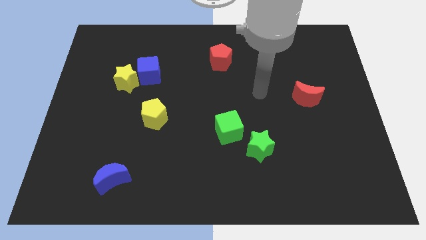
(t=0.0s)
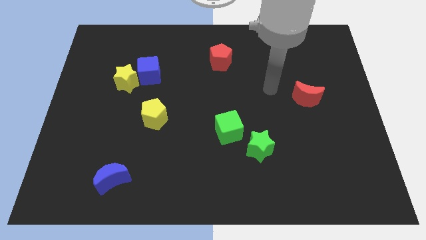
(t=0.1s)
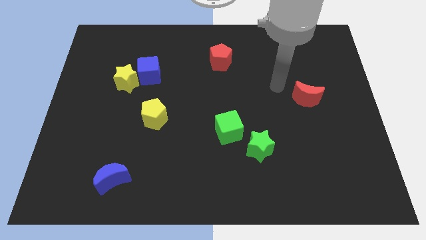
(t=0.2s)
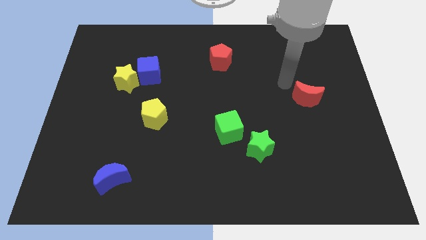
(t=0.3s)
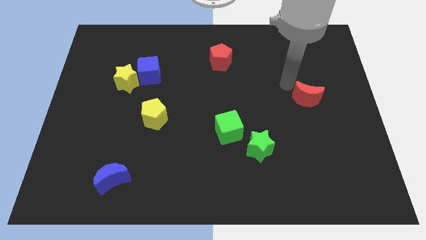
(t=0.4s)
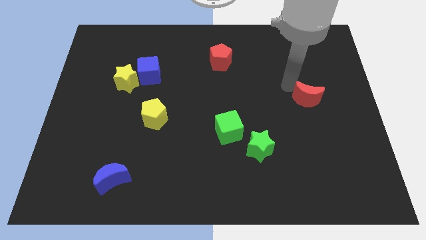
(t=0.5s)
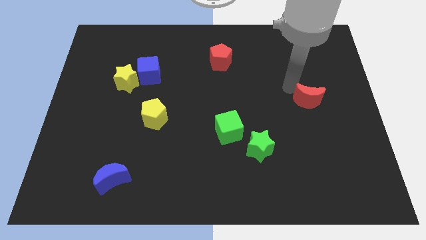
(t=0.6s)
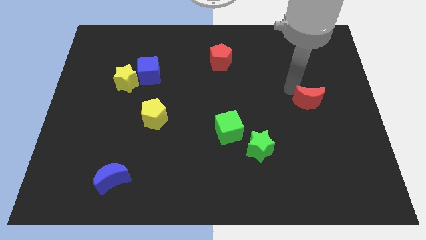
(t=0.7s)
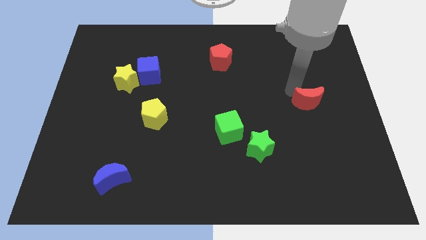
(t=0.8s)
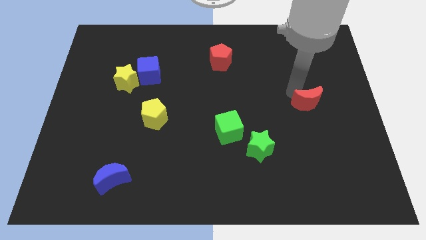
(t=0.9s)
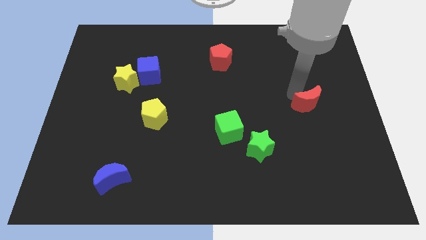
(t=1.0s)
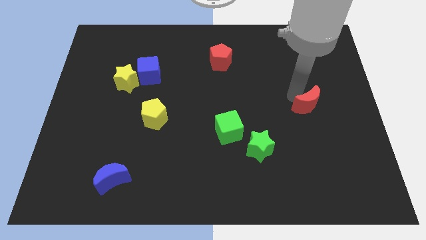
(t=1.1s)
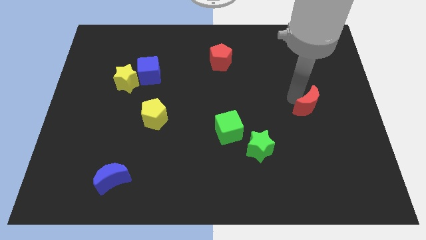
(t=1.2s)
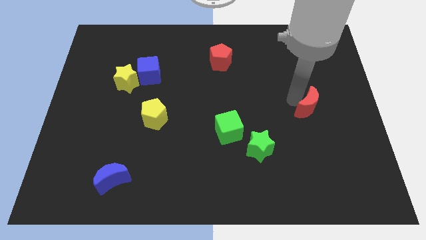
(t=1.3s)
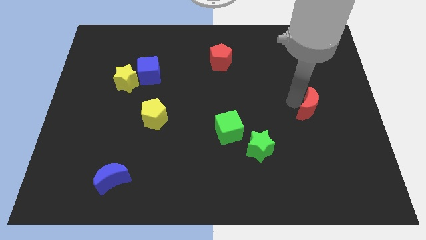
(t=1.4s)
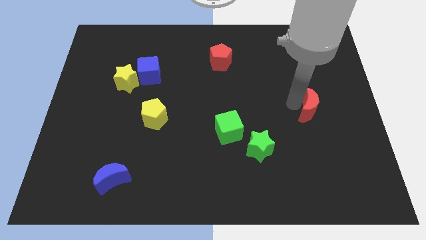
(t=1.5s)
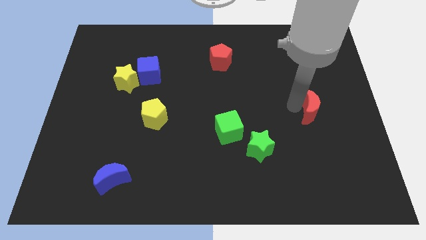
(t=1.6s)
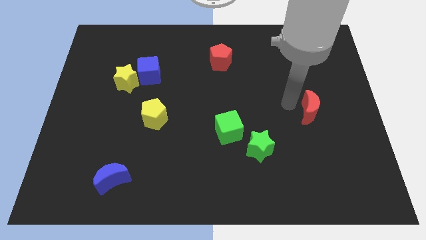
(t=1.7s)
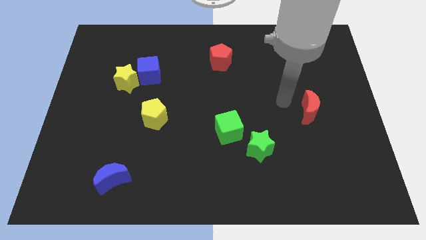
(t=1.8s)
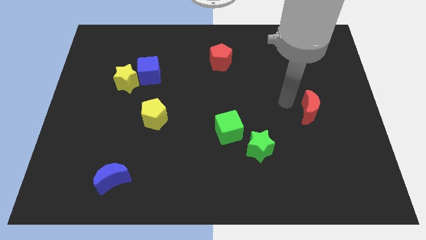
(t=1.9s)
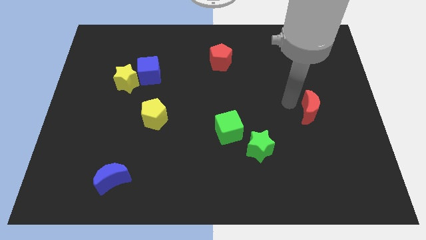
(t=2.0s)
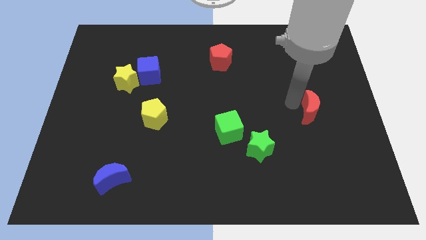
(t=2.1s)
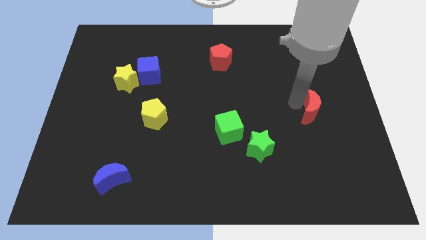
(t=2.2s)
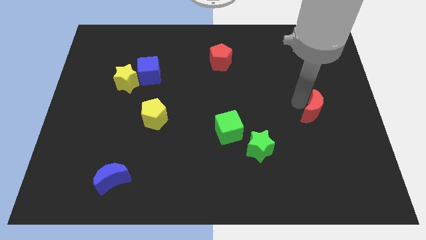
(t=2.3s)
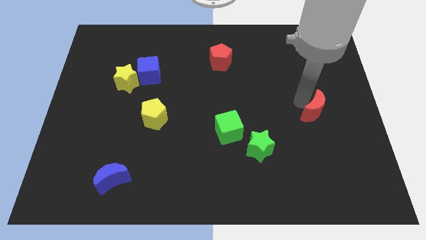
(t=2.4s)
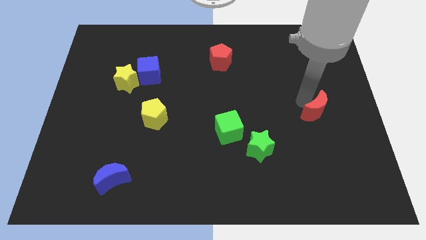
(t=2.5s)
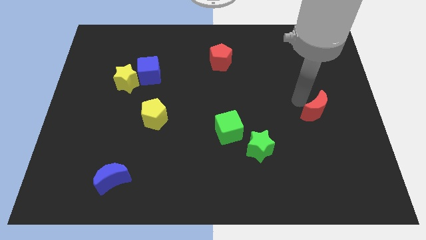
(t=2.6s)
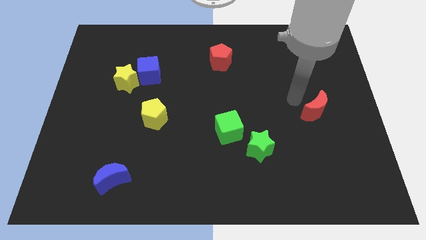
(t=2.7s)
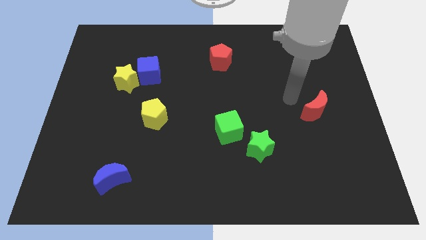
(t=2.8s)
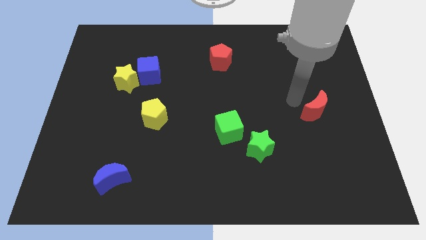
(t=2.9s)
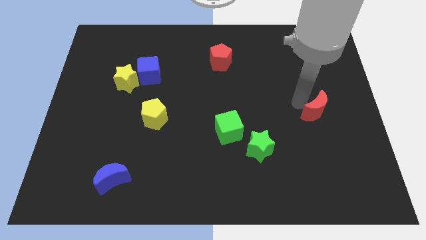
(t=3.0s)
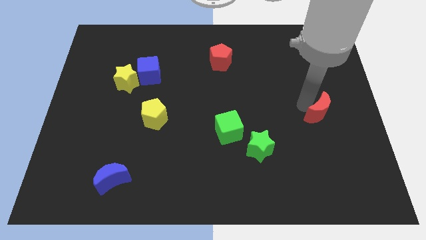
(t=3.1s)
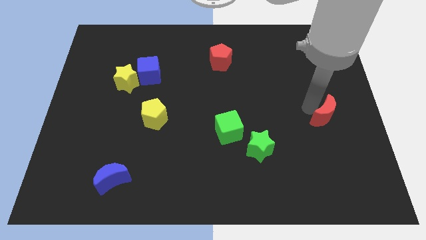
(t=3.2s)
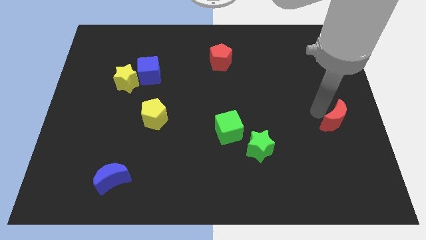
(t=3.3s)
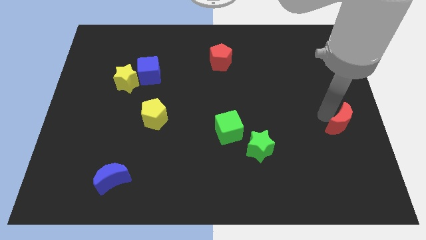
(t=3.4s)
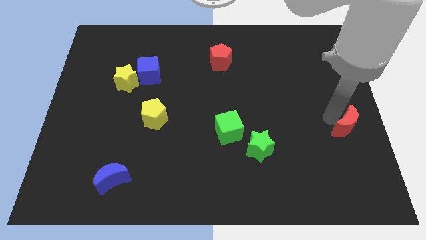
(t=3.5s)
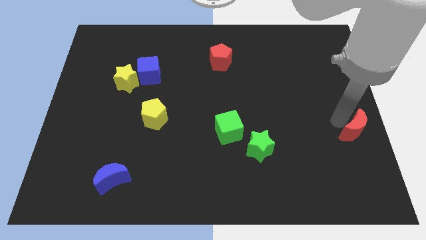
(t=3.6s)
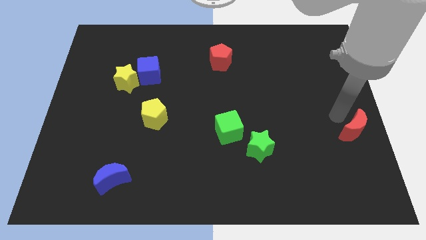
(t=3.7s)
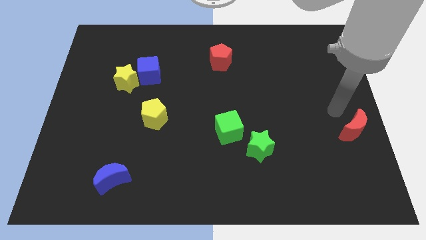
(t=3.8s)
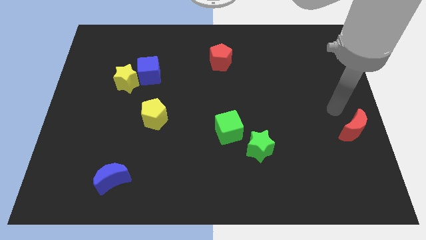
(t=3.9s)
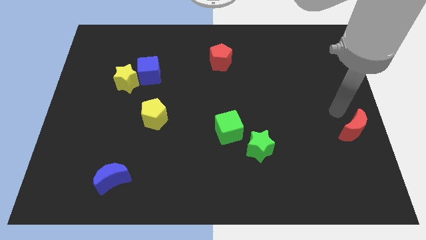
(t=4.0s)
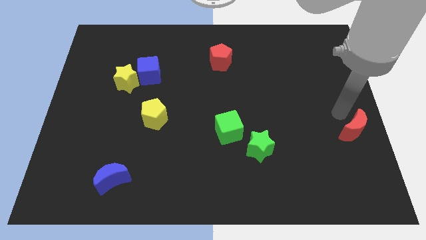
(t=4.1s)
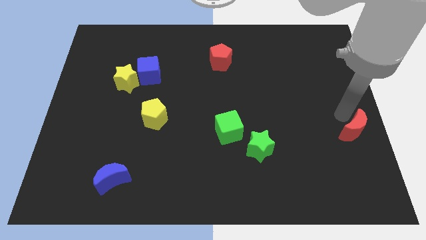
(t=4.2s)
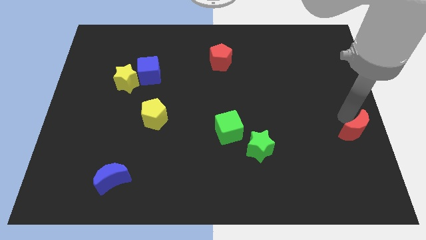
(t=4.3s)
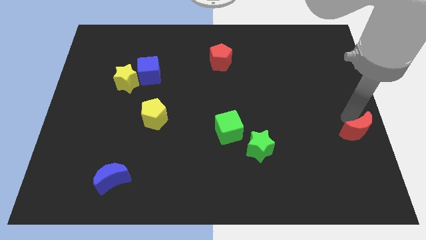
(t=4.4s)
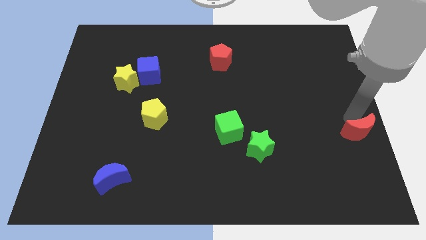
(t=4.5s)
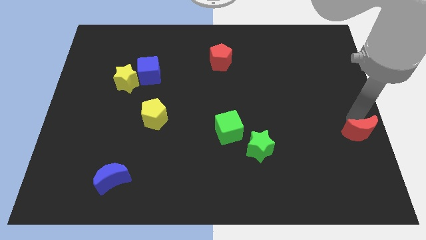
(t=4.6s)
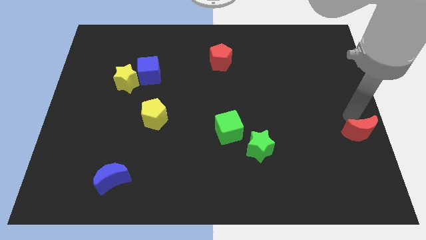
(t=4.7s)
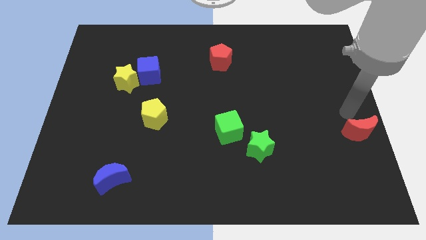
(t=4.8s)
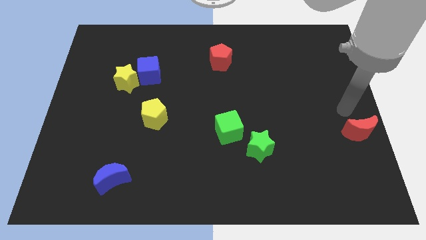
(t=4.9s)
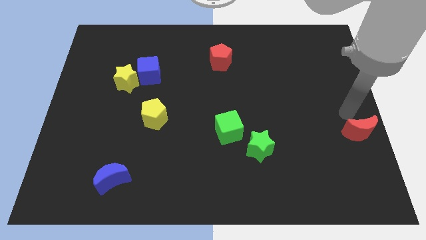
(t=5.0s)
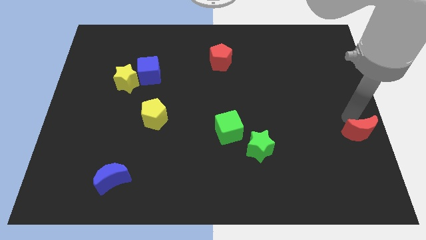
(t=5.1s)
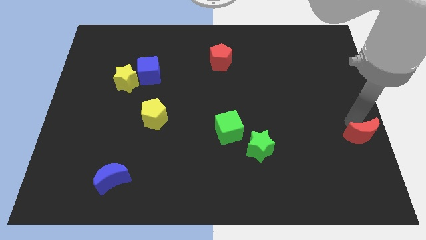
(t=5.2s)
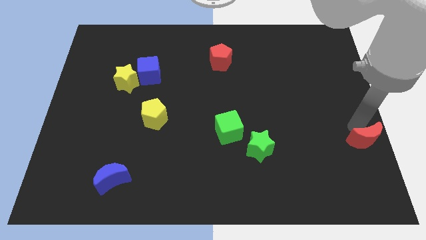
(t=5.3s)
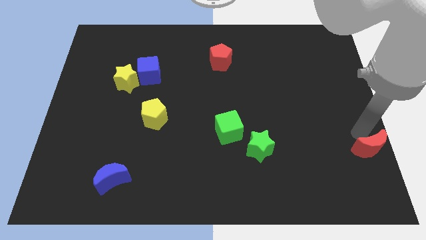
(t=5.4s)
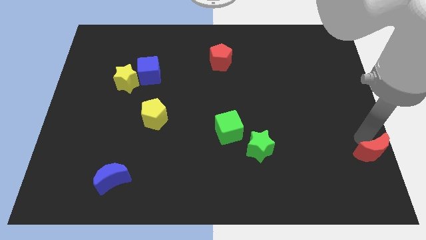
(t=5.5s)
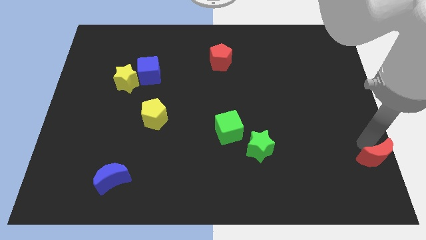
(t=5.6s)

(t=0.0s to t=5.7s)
slide the red moon to the bottom right corner
